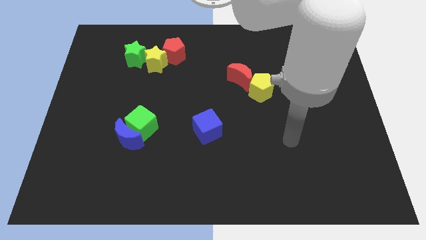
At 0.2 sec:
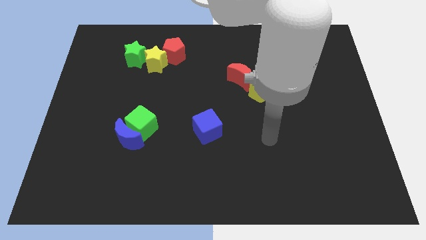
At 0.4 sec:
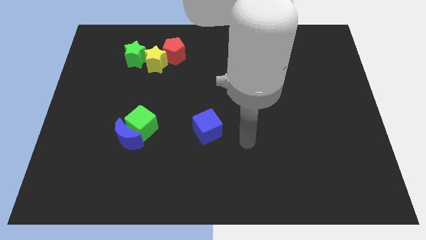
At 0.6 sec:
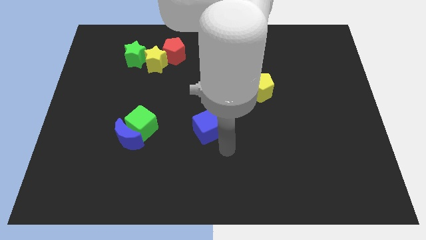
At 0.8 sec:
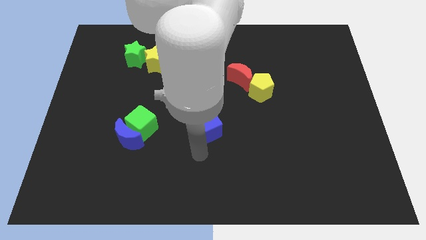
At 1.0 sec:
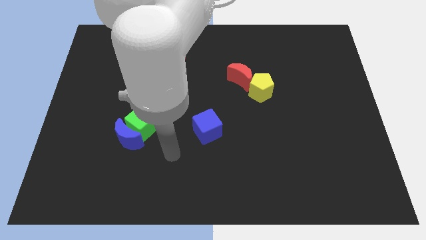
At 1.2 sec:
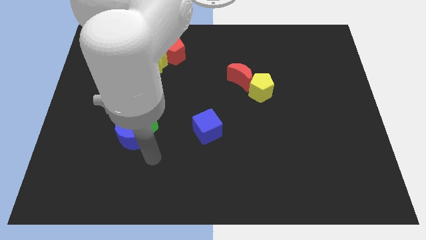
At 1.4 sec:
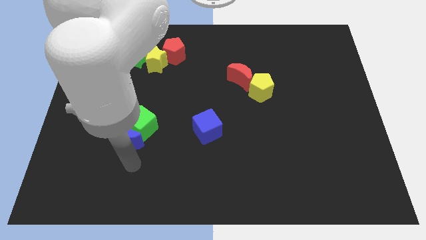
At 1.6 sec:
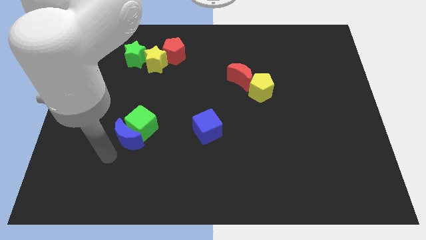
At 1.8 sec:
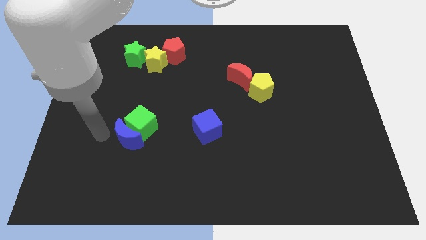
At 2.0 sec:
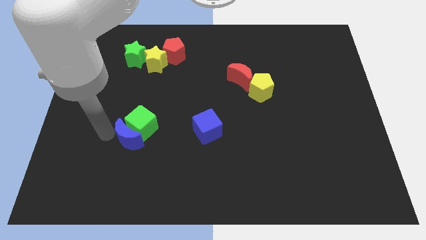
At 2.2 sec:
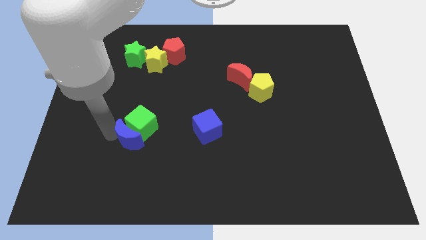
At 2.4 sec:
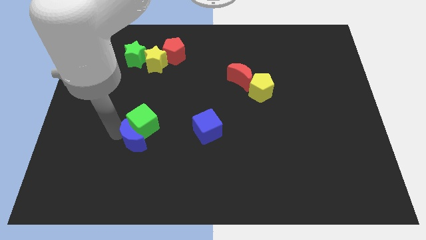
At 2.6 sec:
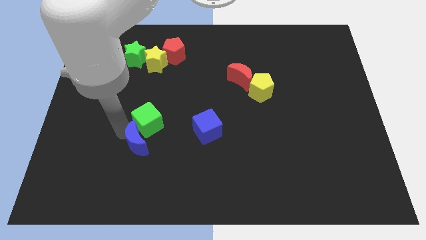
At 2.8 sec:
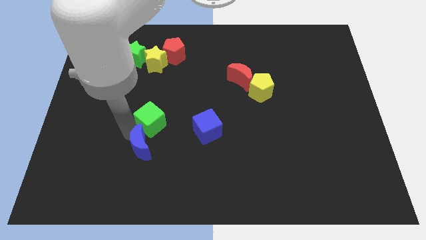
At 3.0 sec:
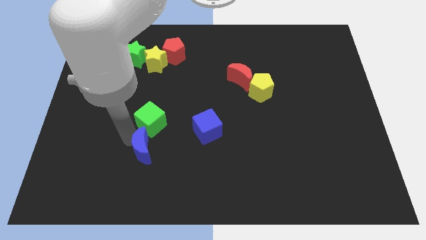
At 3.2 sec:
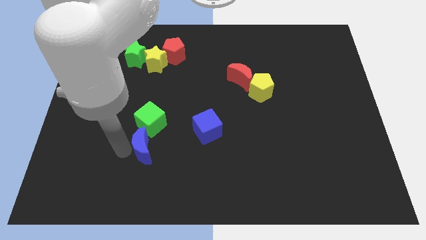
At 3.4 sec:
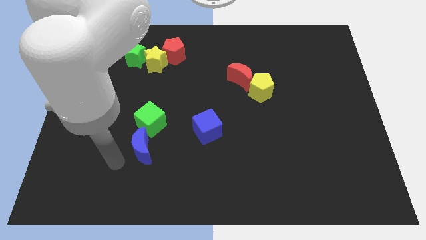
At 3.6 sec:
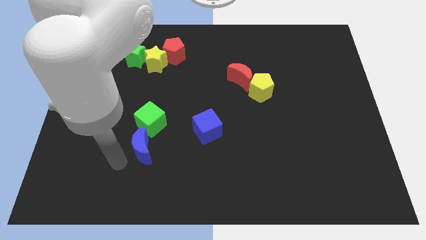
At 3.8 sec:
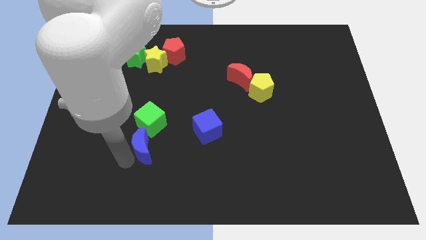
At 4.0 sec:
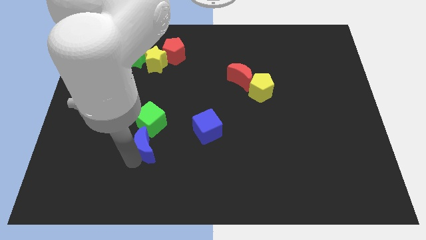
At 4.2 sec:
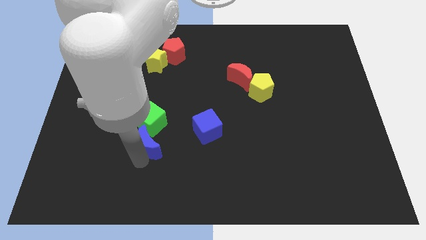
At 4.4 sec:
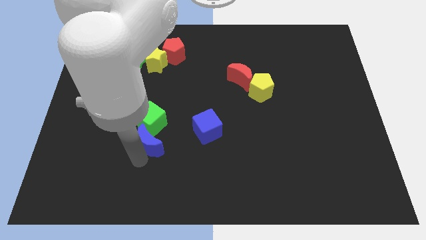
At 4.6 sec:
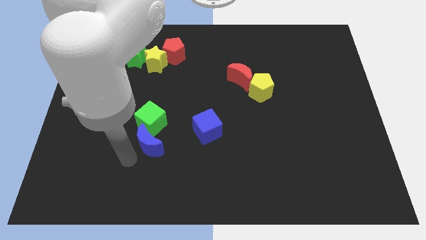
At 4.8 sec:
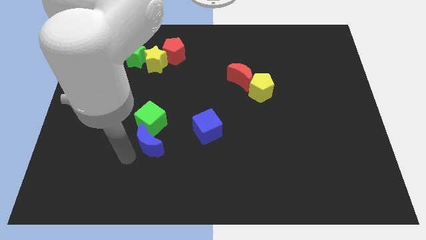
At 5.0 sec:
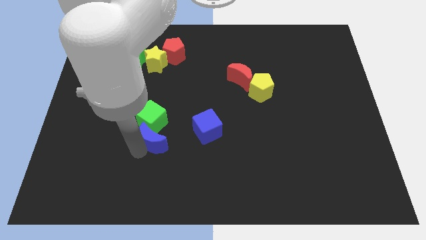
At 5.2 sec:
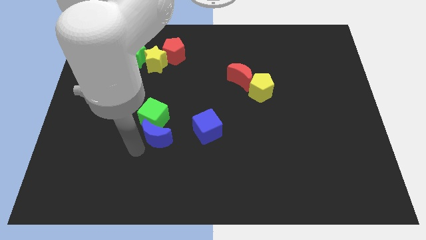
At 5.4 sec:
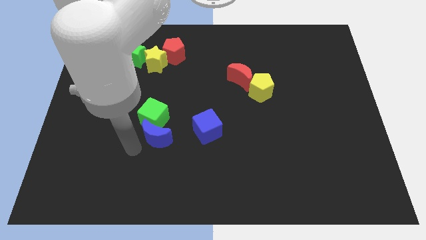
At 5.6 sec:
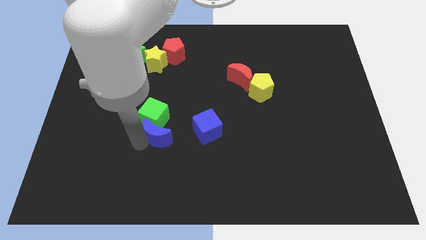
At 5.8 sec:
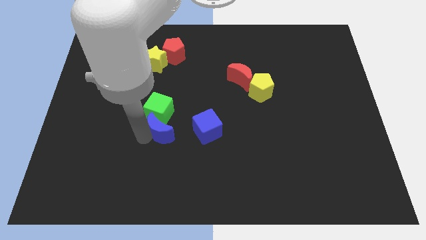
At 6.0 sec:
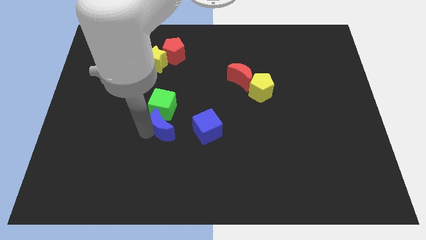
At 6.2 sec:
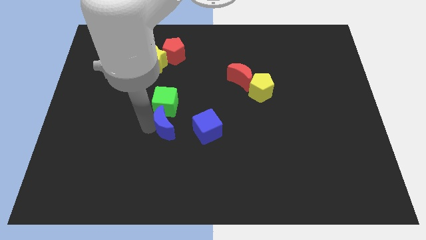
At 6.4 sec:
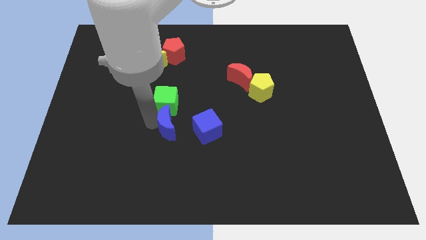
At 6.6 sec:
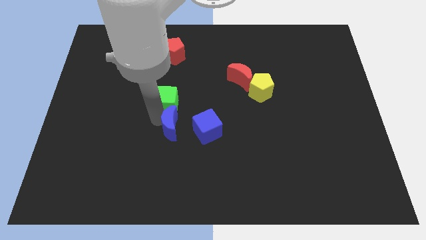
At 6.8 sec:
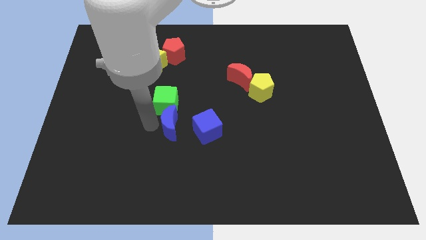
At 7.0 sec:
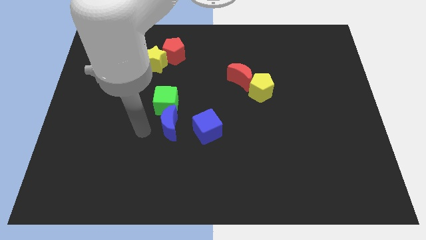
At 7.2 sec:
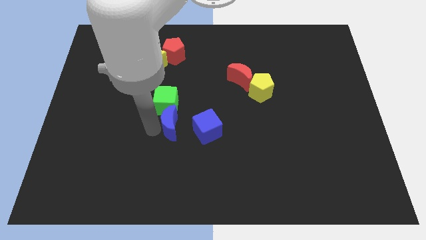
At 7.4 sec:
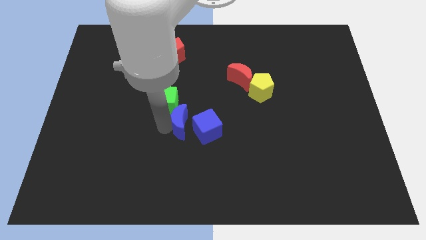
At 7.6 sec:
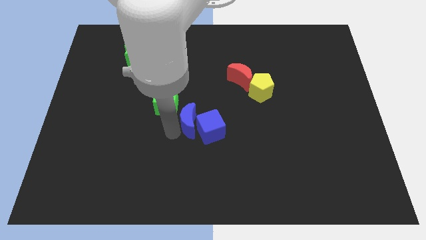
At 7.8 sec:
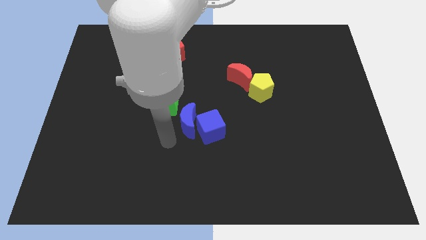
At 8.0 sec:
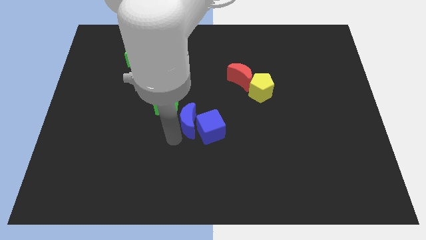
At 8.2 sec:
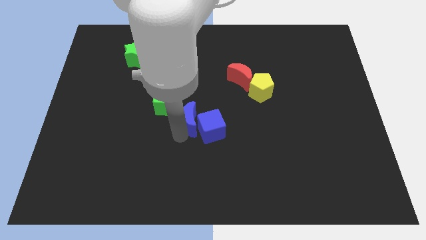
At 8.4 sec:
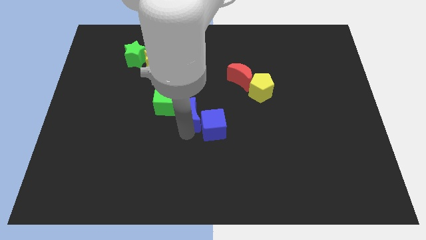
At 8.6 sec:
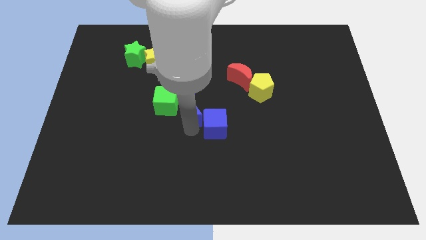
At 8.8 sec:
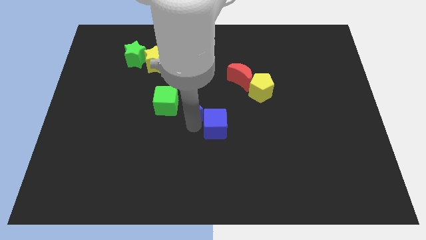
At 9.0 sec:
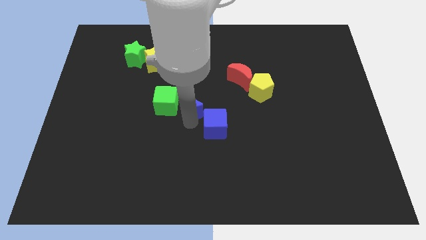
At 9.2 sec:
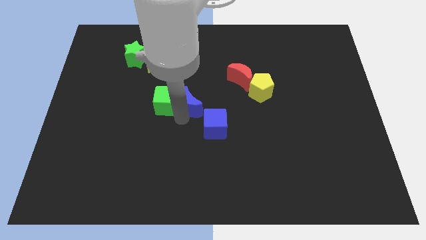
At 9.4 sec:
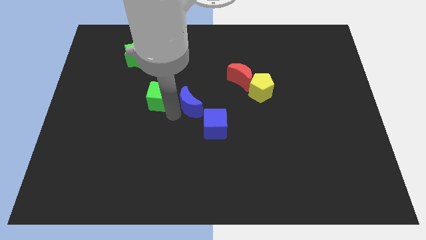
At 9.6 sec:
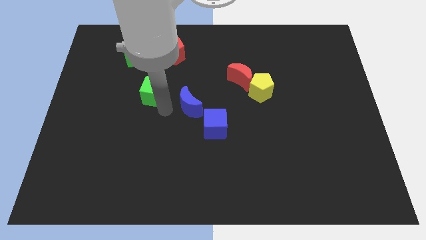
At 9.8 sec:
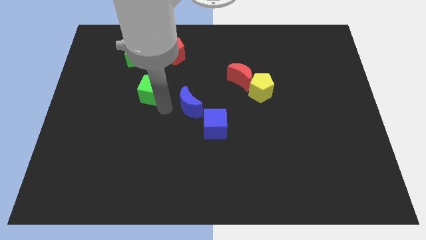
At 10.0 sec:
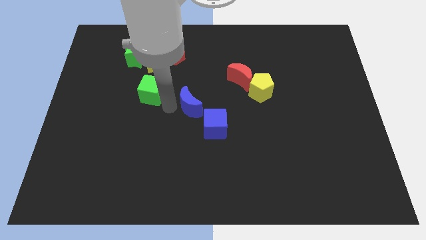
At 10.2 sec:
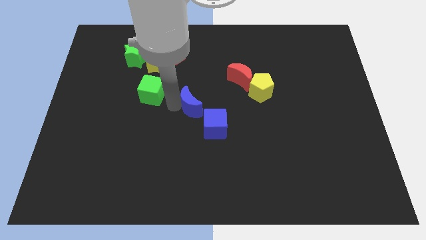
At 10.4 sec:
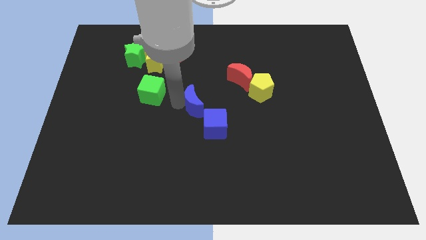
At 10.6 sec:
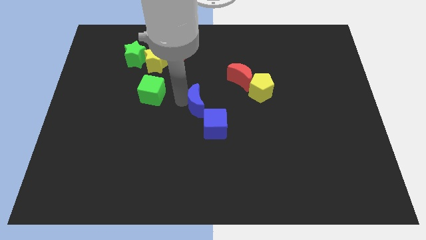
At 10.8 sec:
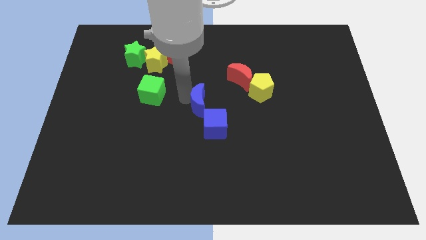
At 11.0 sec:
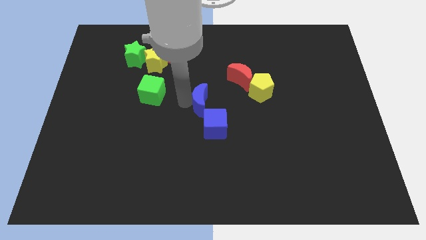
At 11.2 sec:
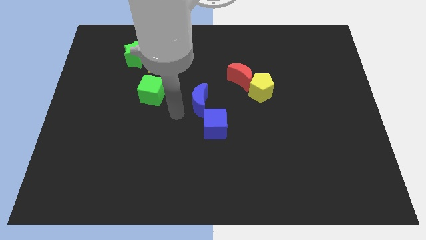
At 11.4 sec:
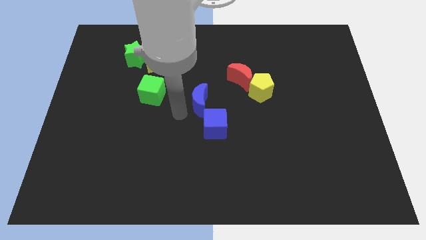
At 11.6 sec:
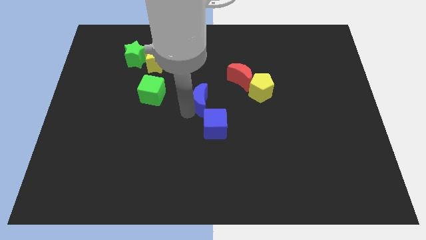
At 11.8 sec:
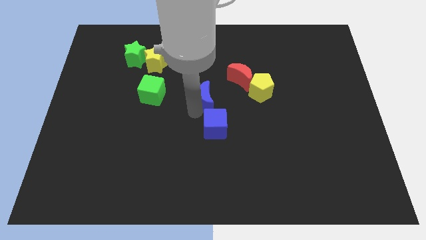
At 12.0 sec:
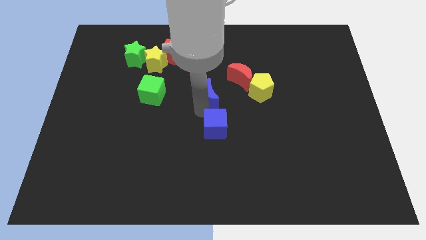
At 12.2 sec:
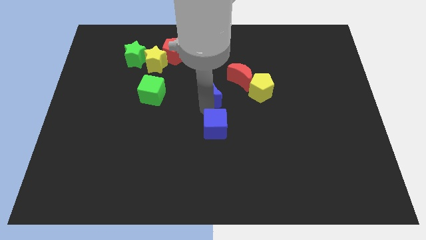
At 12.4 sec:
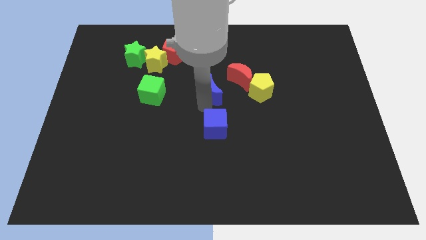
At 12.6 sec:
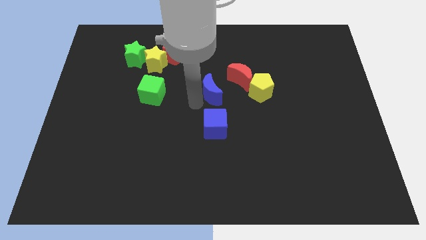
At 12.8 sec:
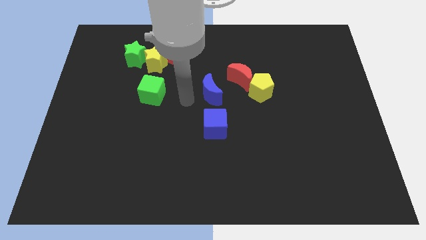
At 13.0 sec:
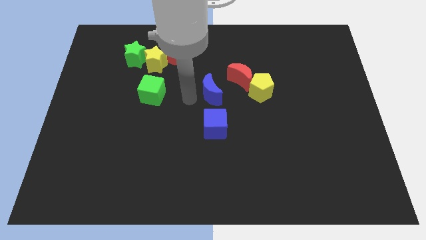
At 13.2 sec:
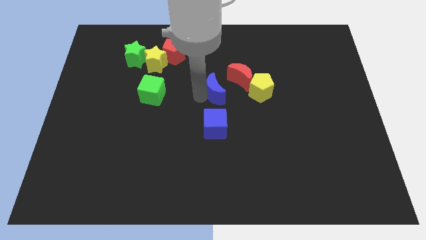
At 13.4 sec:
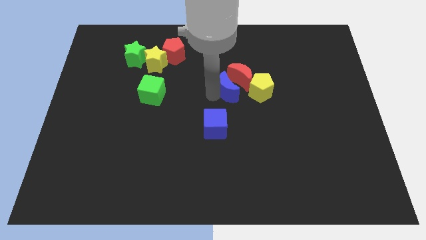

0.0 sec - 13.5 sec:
put the blue moon next to the red moon

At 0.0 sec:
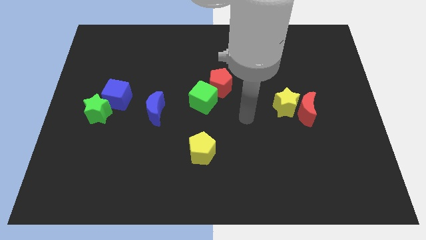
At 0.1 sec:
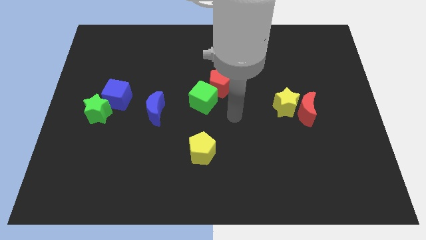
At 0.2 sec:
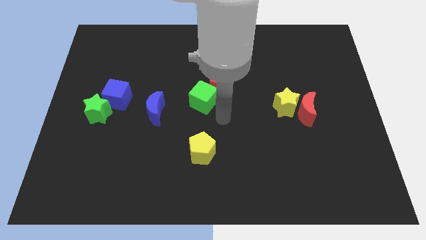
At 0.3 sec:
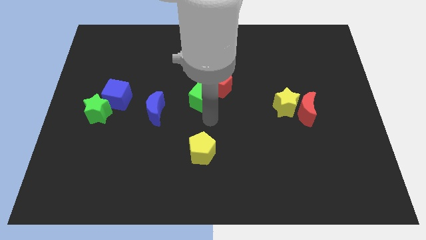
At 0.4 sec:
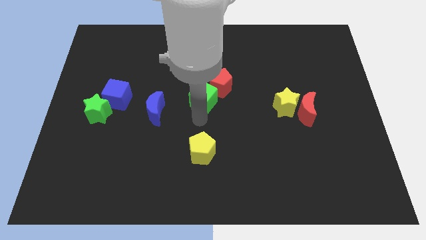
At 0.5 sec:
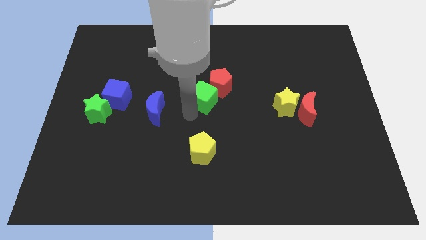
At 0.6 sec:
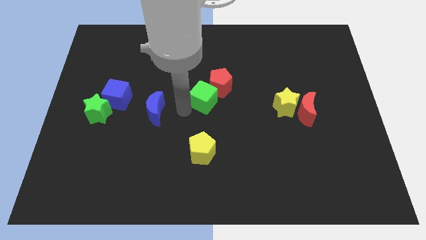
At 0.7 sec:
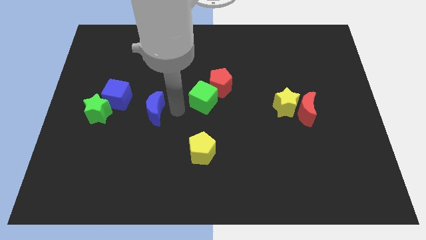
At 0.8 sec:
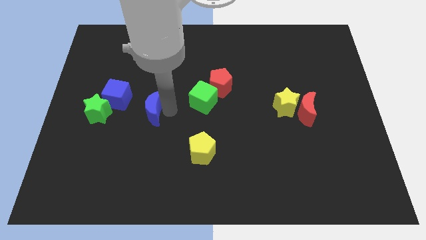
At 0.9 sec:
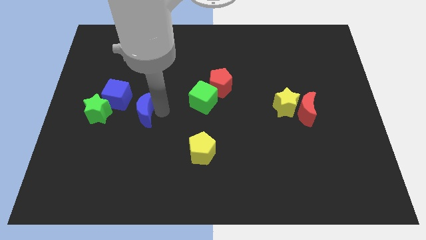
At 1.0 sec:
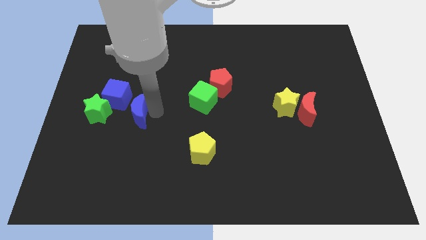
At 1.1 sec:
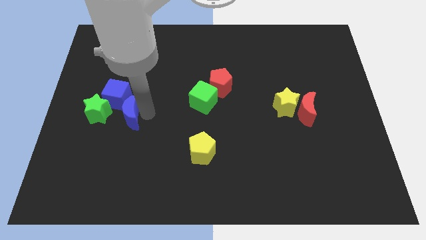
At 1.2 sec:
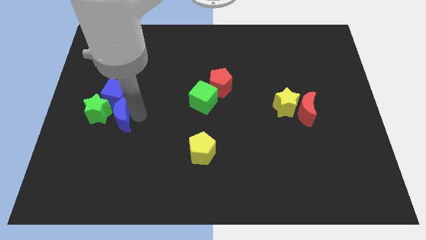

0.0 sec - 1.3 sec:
push the blue moon close to the green star
